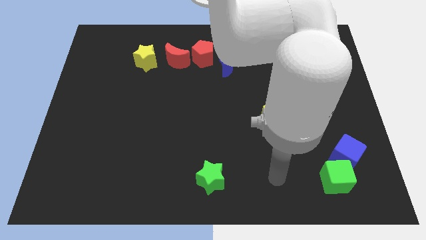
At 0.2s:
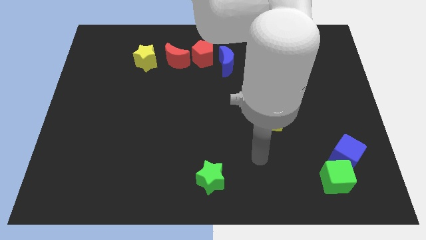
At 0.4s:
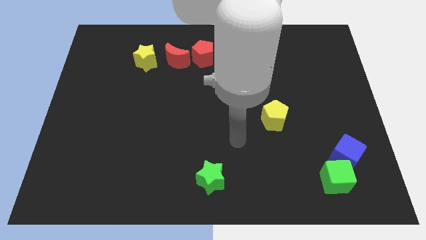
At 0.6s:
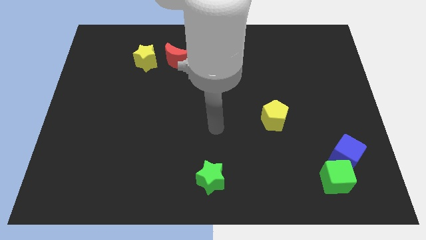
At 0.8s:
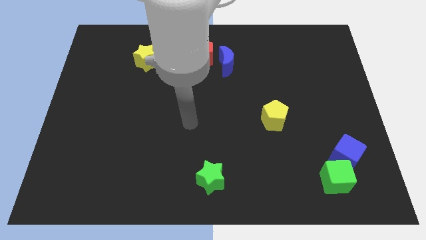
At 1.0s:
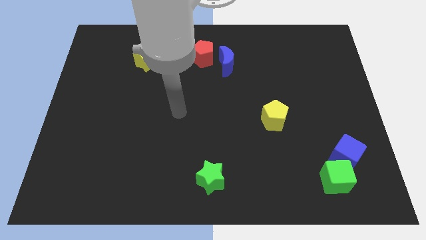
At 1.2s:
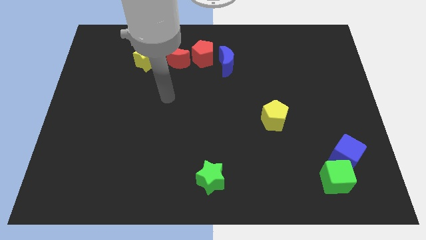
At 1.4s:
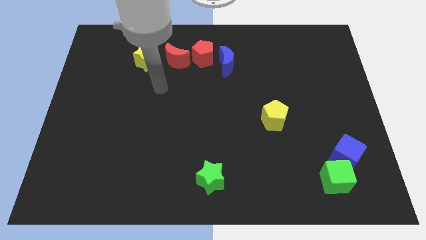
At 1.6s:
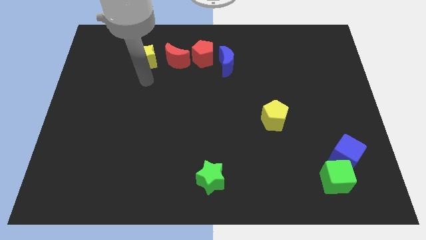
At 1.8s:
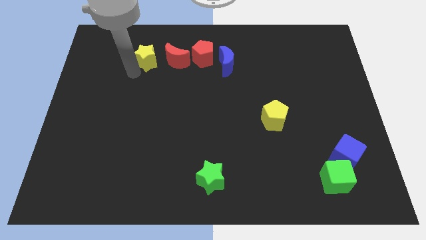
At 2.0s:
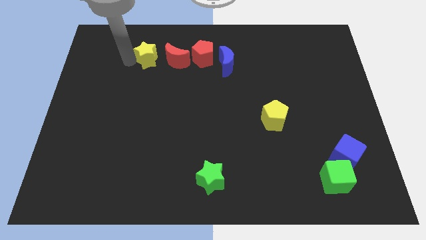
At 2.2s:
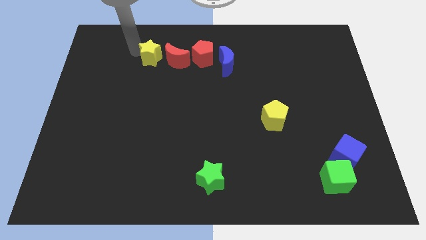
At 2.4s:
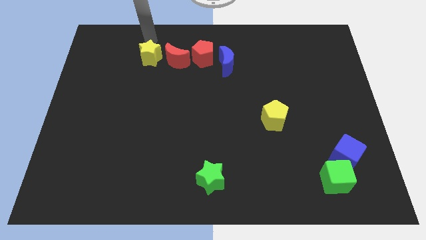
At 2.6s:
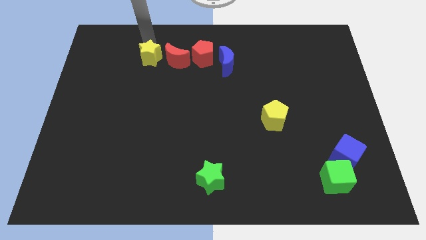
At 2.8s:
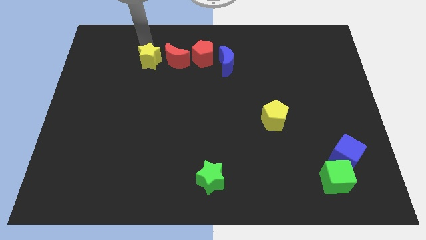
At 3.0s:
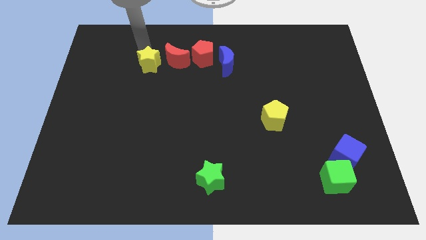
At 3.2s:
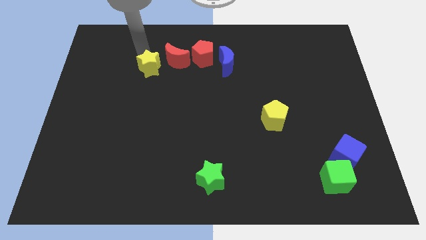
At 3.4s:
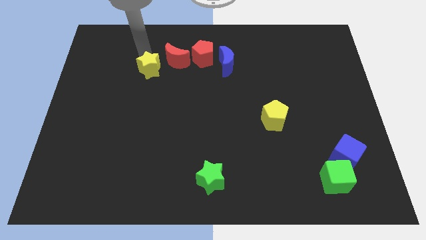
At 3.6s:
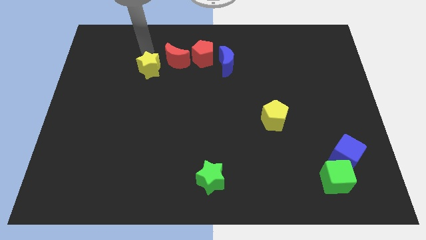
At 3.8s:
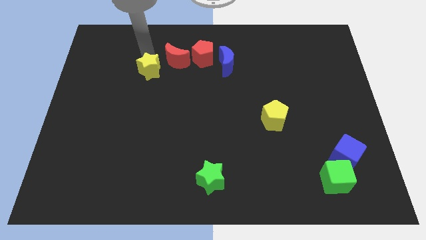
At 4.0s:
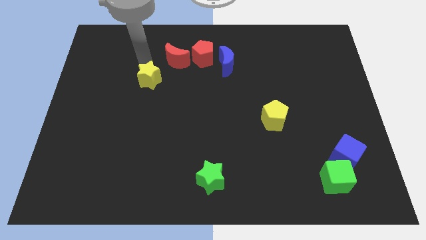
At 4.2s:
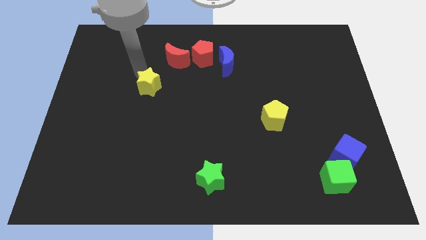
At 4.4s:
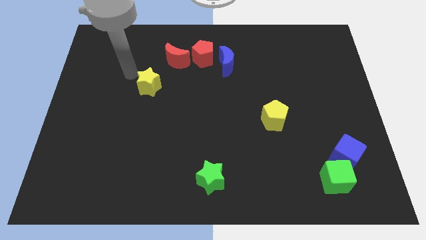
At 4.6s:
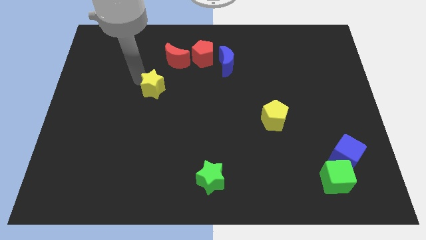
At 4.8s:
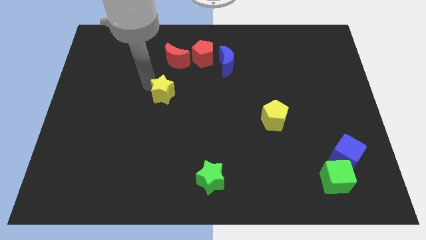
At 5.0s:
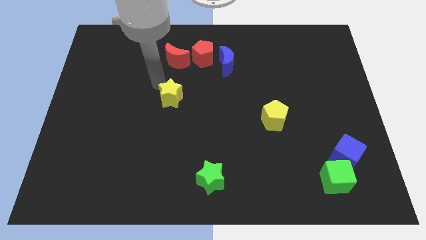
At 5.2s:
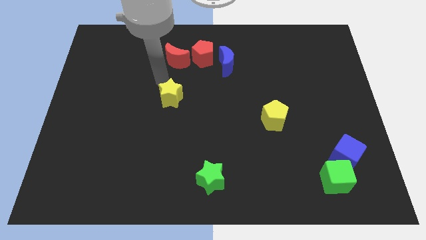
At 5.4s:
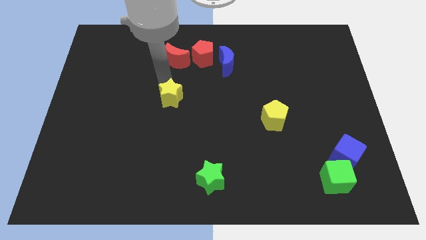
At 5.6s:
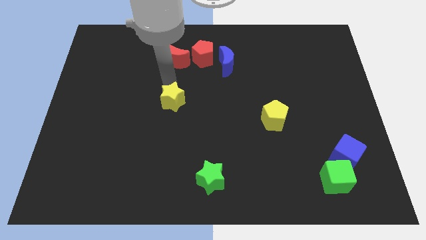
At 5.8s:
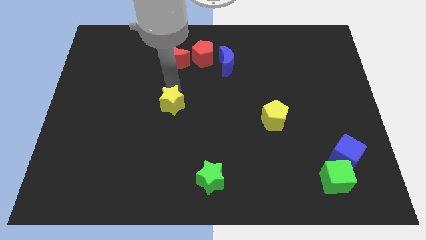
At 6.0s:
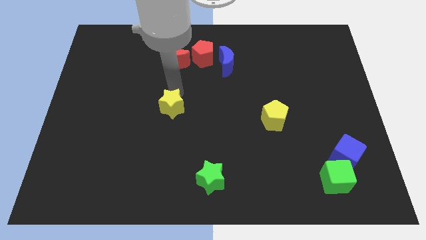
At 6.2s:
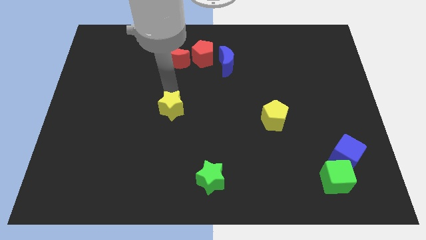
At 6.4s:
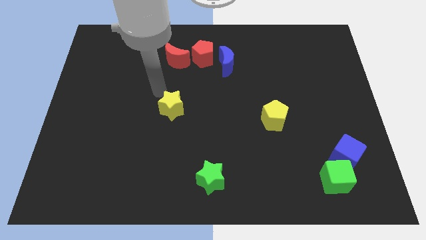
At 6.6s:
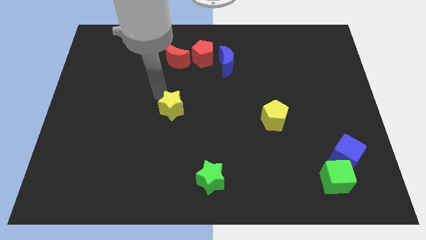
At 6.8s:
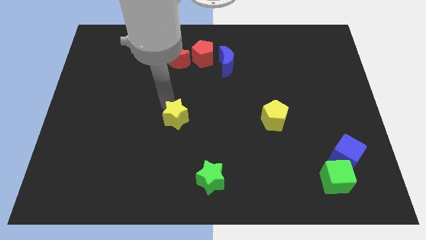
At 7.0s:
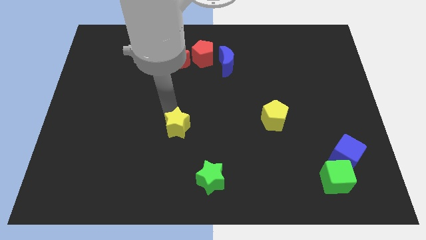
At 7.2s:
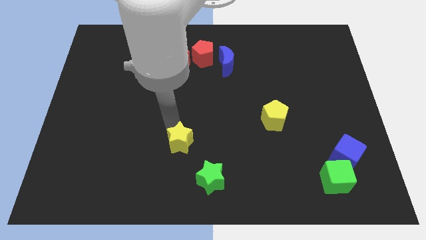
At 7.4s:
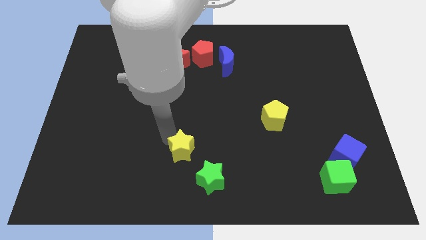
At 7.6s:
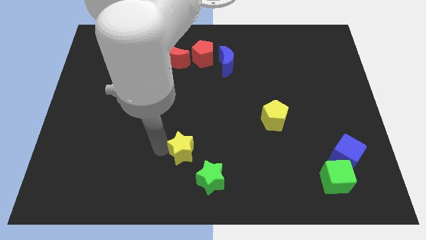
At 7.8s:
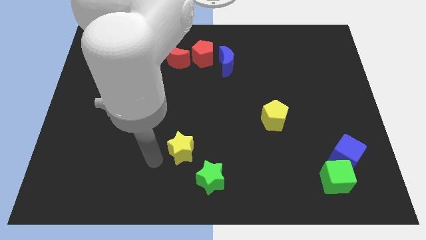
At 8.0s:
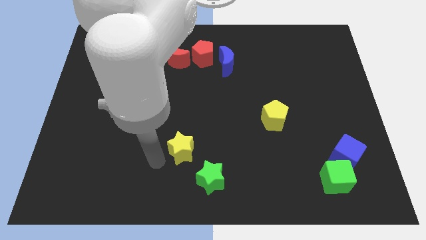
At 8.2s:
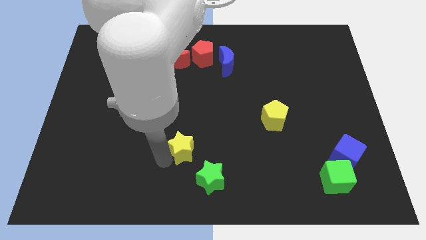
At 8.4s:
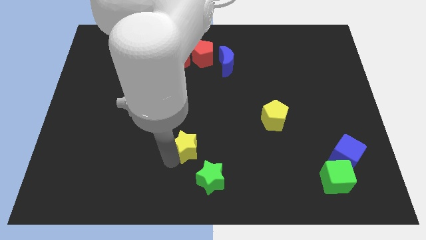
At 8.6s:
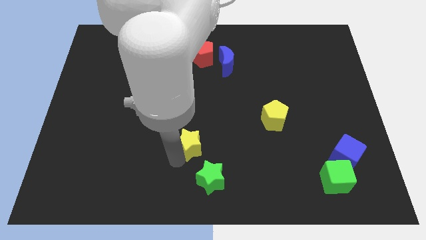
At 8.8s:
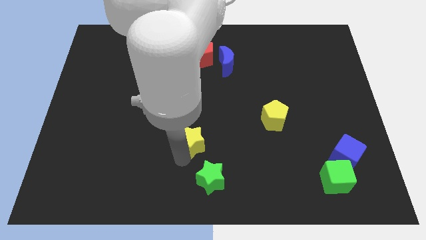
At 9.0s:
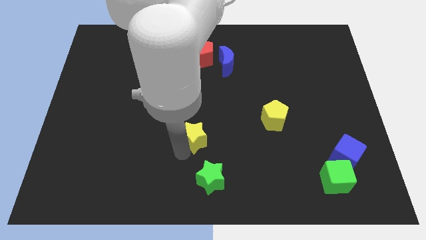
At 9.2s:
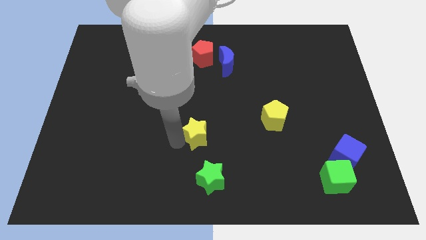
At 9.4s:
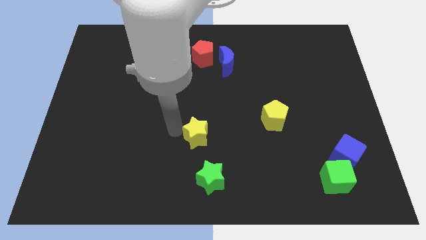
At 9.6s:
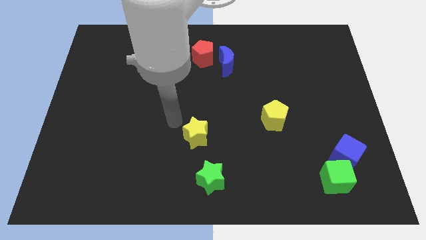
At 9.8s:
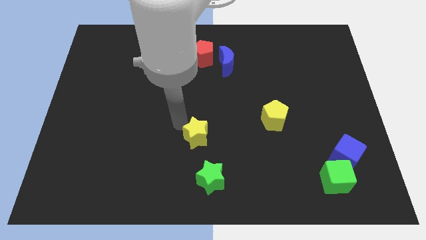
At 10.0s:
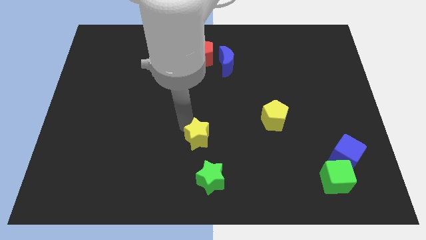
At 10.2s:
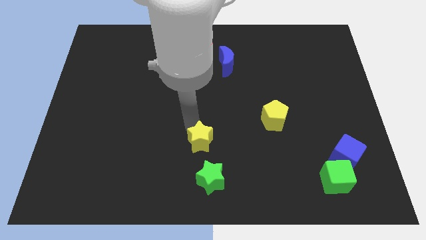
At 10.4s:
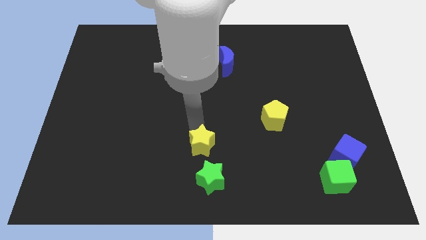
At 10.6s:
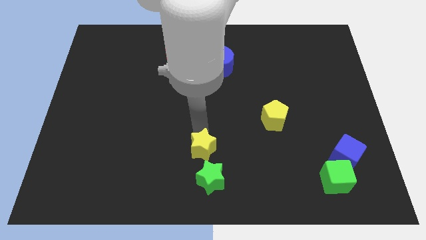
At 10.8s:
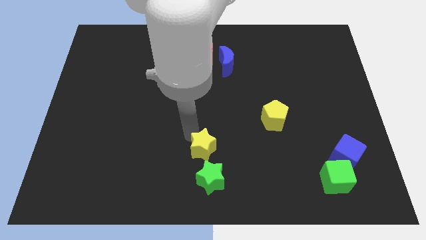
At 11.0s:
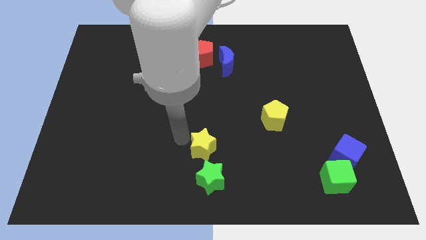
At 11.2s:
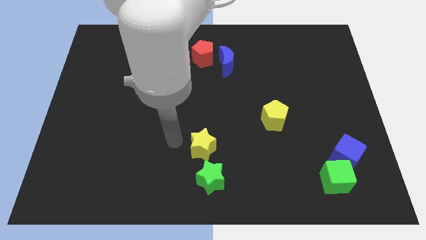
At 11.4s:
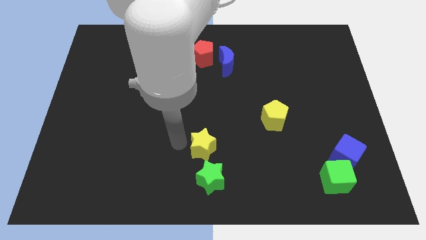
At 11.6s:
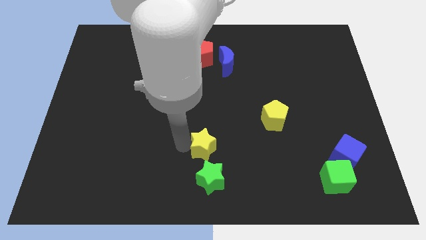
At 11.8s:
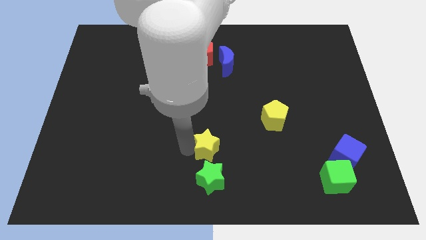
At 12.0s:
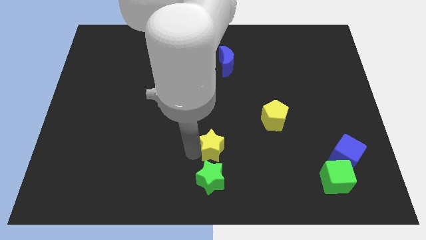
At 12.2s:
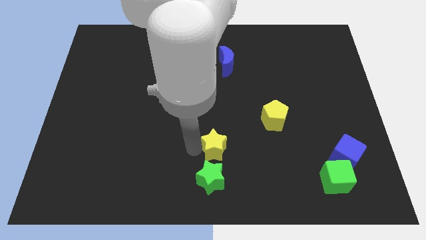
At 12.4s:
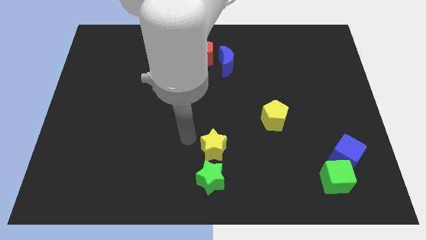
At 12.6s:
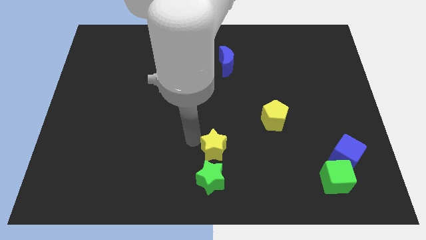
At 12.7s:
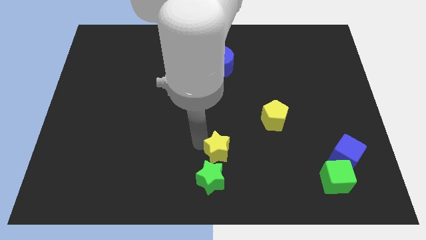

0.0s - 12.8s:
move the yellow star to the top right side of the green star

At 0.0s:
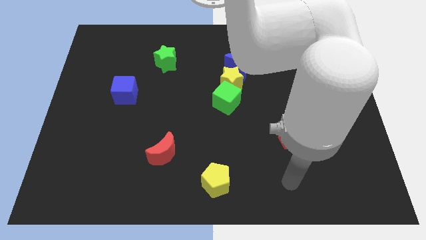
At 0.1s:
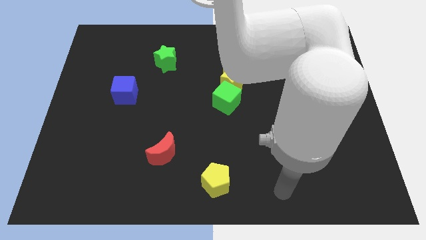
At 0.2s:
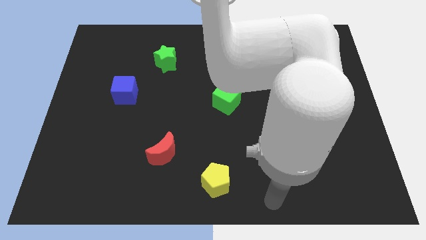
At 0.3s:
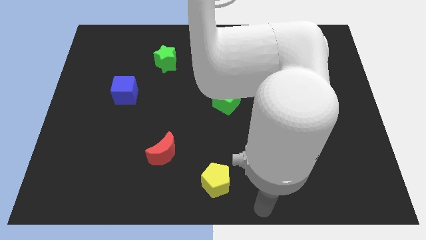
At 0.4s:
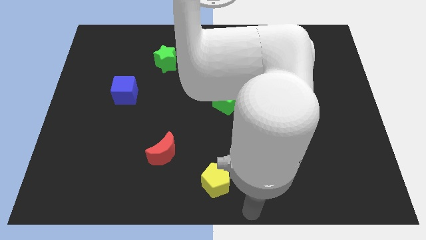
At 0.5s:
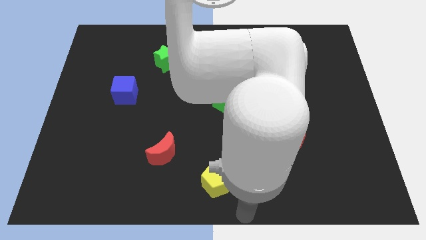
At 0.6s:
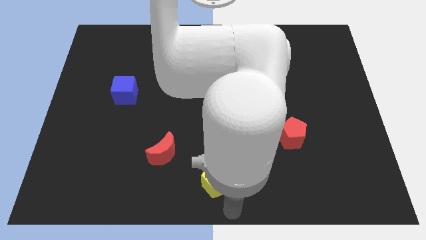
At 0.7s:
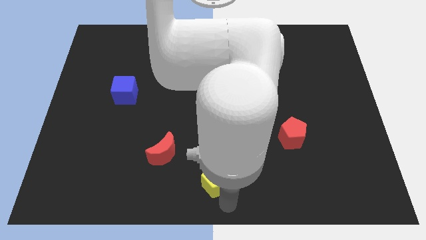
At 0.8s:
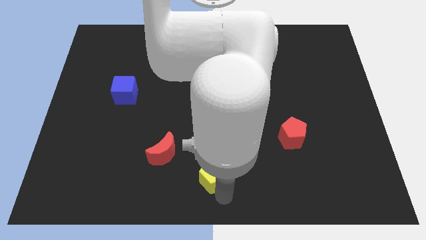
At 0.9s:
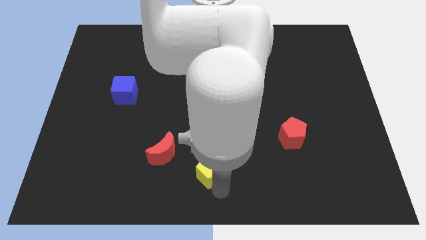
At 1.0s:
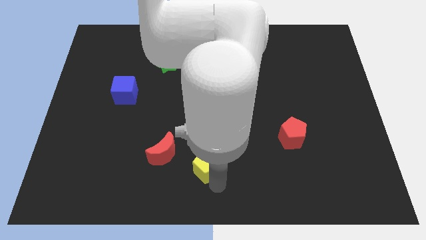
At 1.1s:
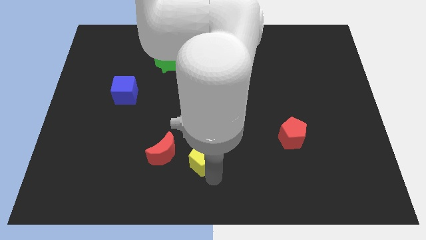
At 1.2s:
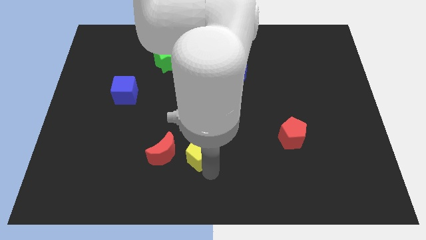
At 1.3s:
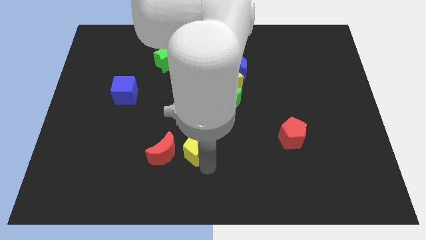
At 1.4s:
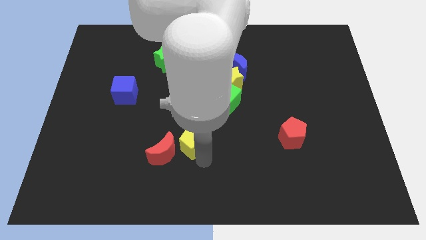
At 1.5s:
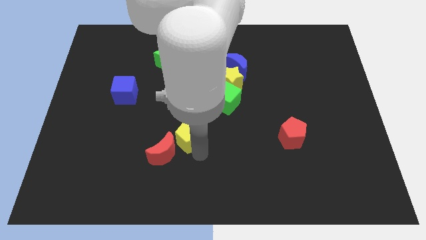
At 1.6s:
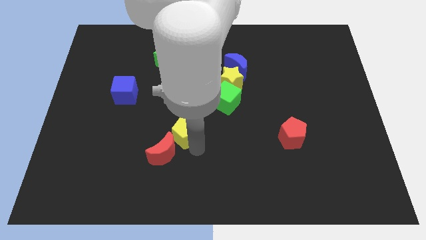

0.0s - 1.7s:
slide the yellow pentagon to the top of the red moon
